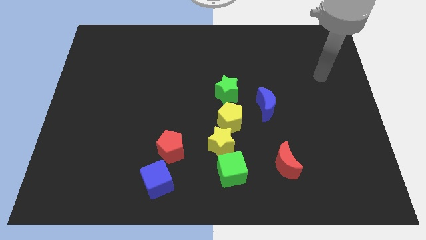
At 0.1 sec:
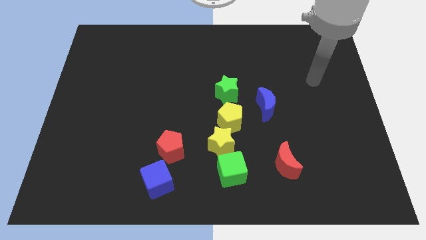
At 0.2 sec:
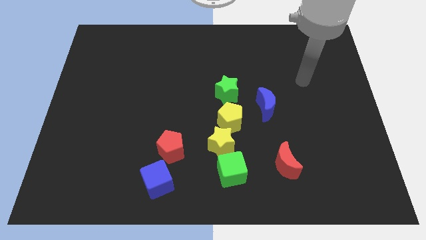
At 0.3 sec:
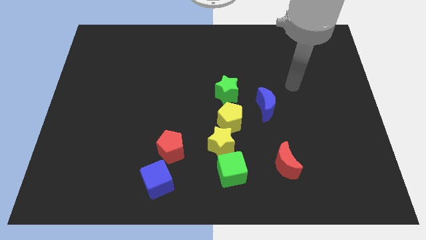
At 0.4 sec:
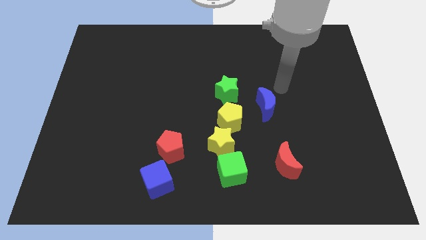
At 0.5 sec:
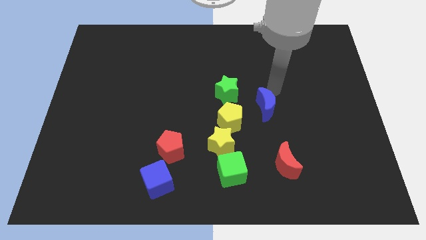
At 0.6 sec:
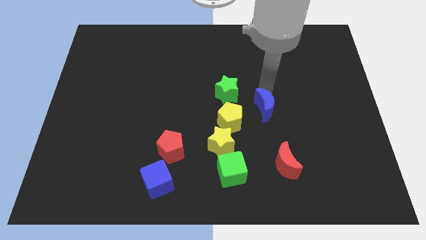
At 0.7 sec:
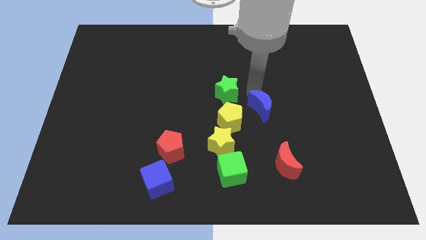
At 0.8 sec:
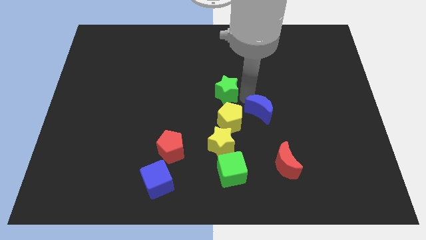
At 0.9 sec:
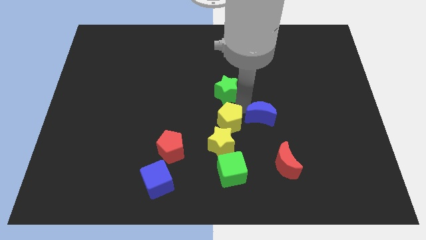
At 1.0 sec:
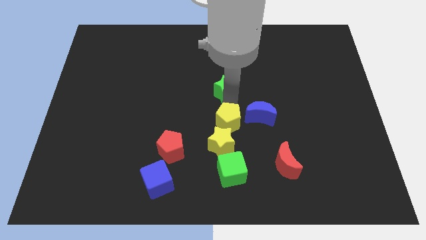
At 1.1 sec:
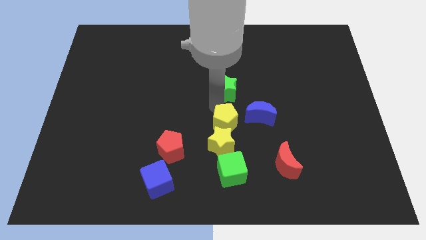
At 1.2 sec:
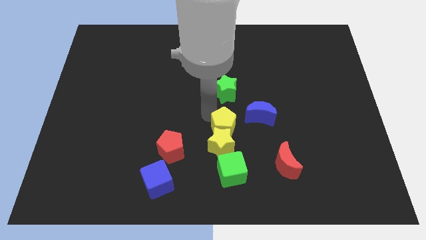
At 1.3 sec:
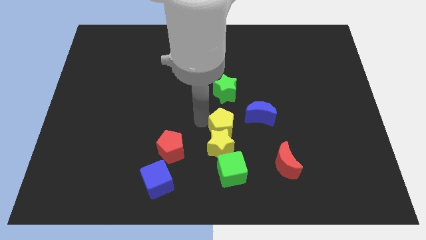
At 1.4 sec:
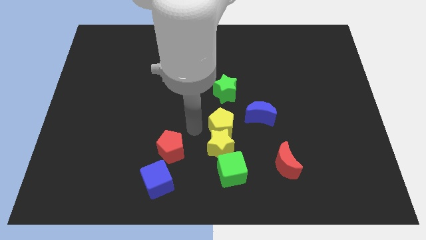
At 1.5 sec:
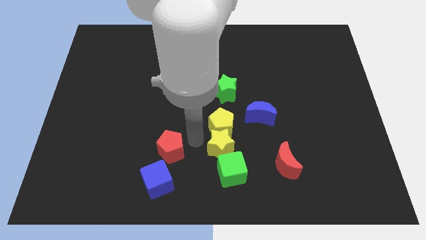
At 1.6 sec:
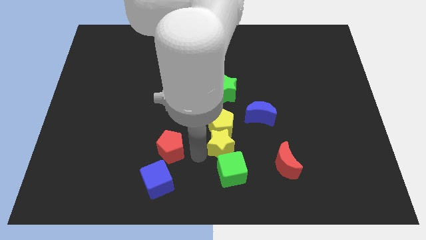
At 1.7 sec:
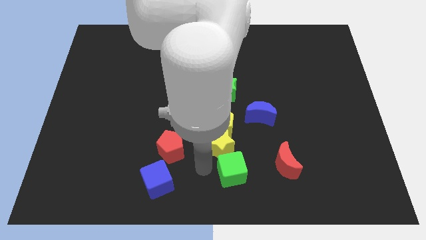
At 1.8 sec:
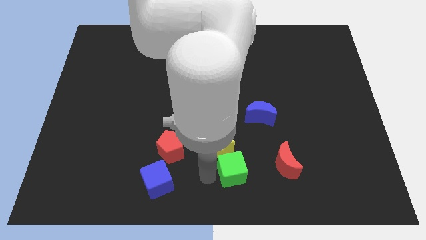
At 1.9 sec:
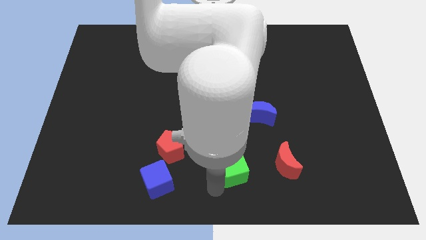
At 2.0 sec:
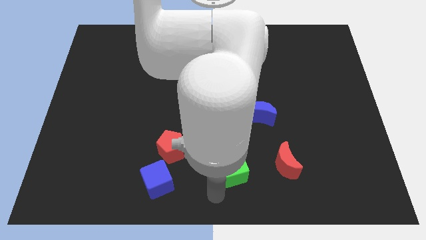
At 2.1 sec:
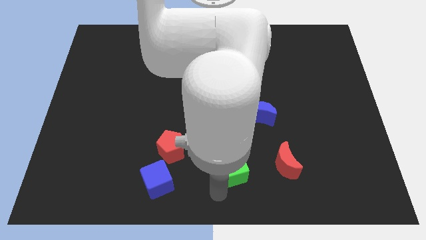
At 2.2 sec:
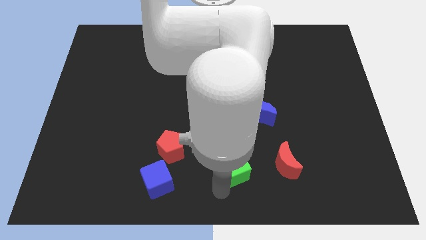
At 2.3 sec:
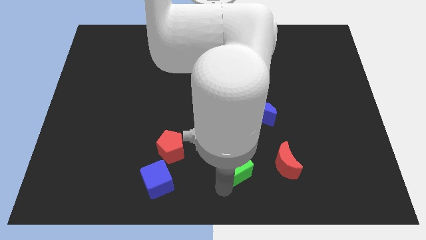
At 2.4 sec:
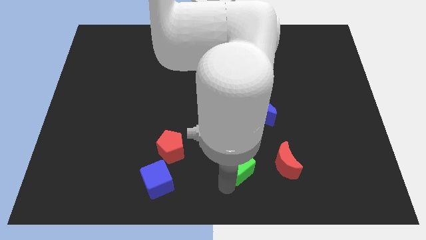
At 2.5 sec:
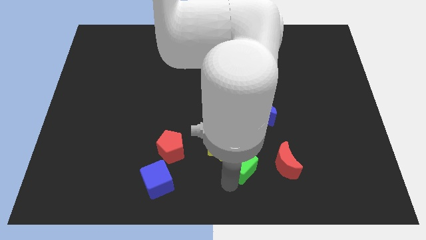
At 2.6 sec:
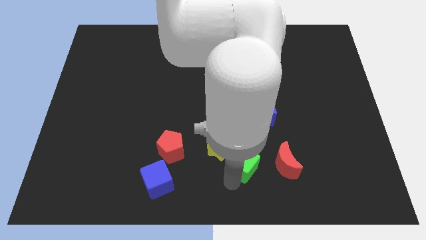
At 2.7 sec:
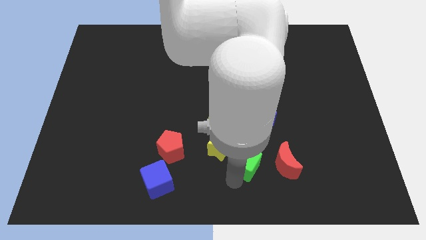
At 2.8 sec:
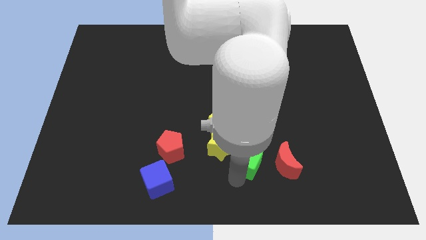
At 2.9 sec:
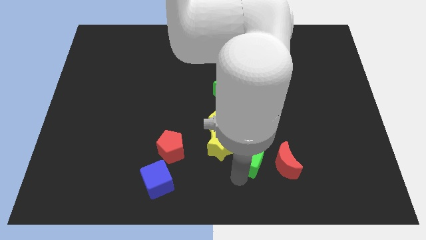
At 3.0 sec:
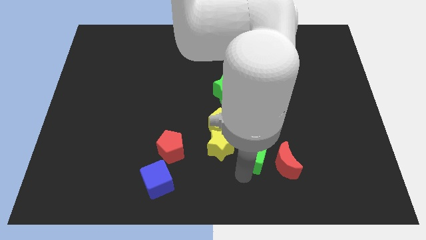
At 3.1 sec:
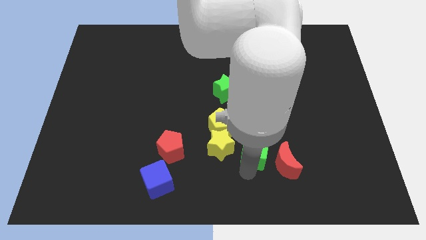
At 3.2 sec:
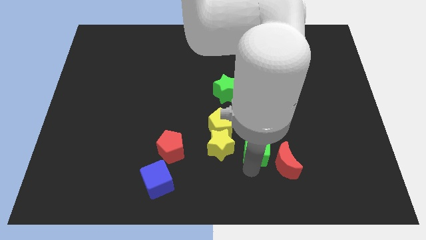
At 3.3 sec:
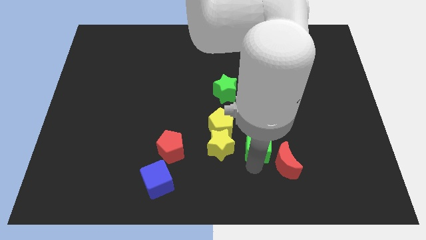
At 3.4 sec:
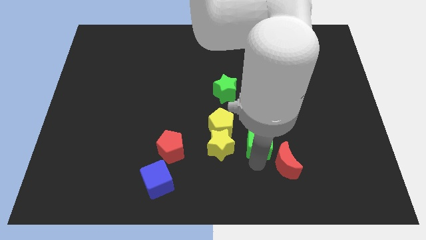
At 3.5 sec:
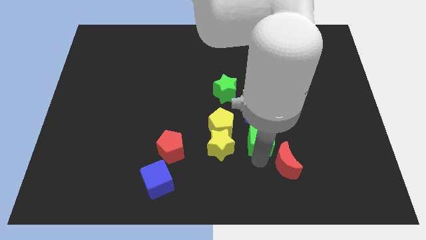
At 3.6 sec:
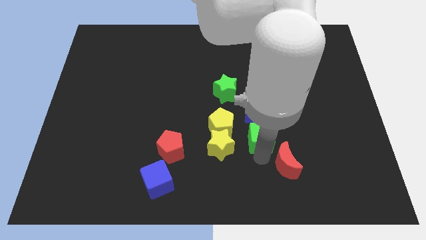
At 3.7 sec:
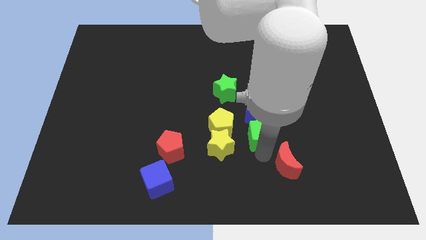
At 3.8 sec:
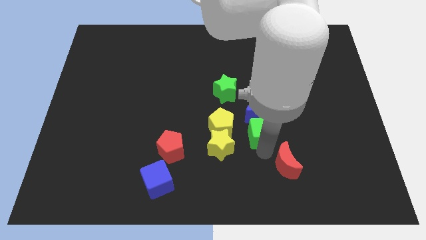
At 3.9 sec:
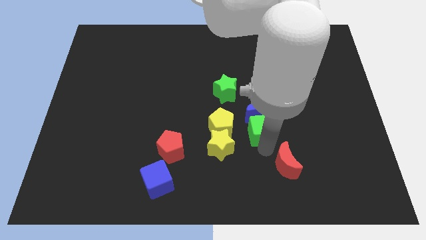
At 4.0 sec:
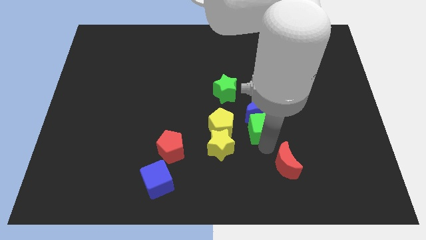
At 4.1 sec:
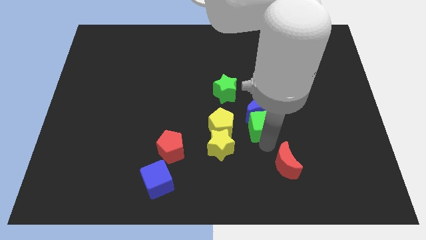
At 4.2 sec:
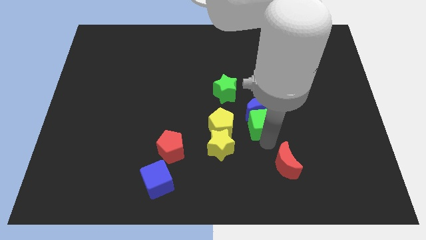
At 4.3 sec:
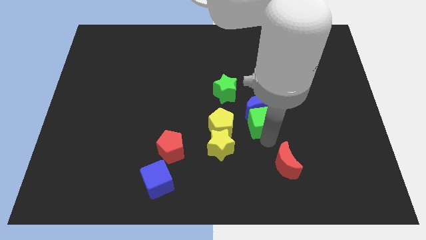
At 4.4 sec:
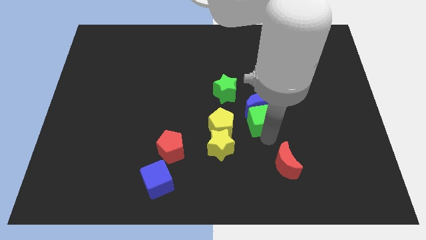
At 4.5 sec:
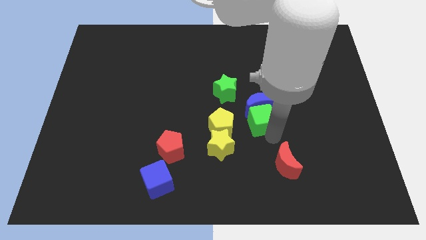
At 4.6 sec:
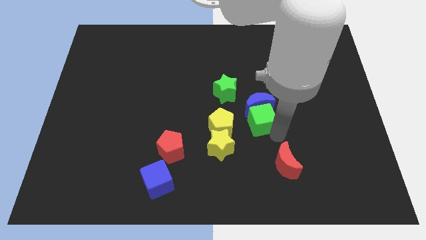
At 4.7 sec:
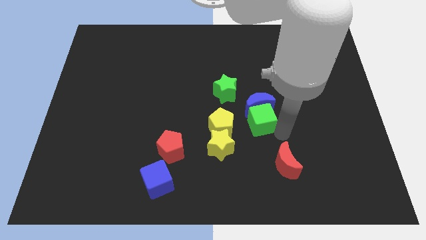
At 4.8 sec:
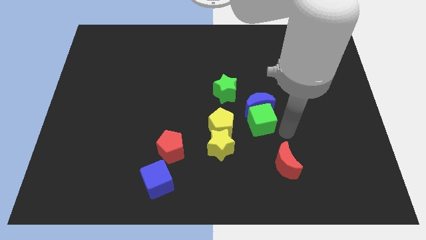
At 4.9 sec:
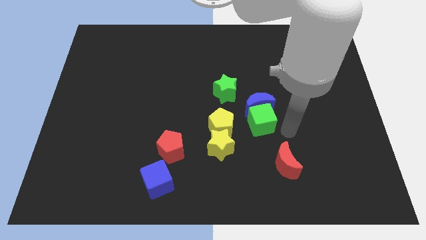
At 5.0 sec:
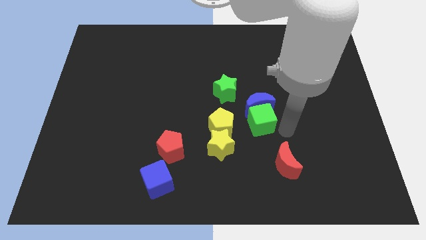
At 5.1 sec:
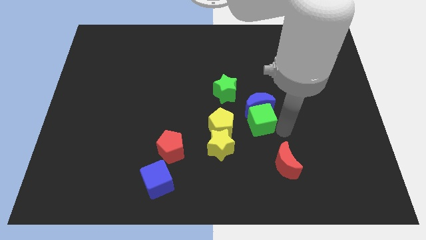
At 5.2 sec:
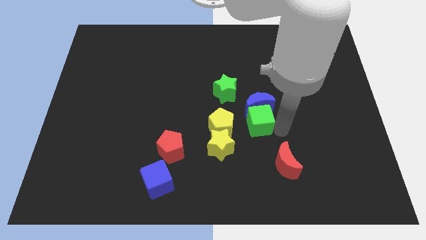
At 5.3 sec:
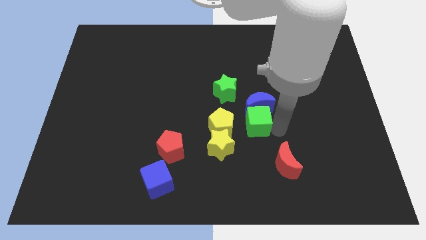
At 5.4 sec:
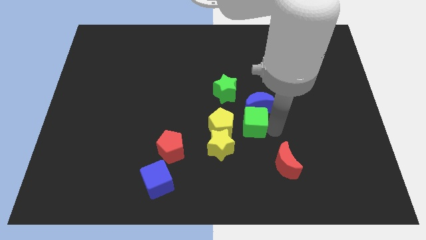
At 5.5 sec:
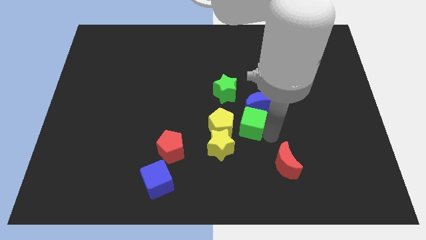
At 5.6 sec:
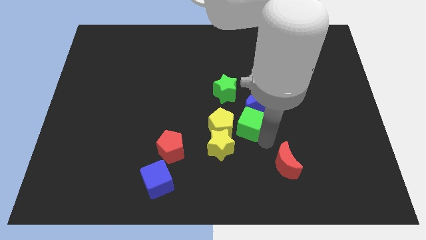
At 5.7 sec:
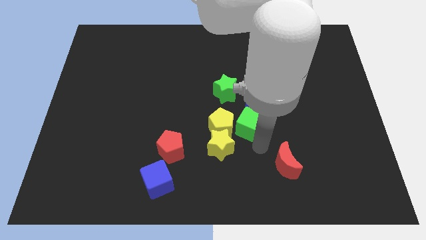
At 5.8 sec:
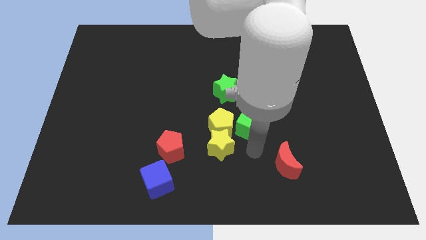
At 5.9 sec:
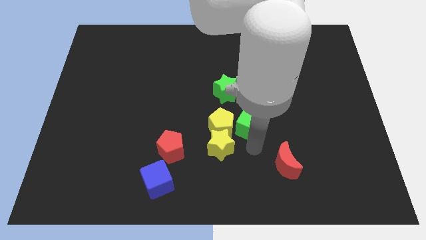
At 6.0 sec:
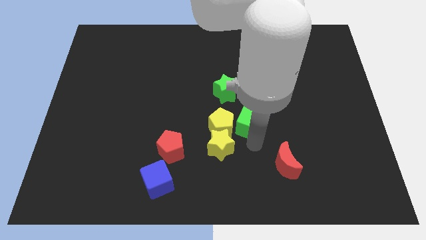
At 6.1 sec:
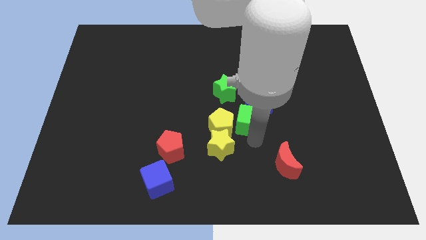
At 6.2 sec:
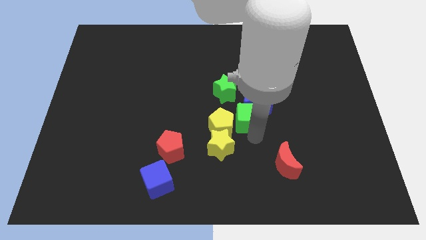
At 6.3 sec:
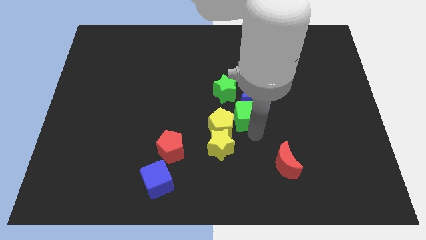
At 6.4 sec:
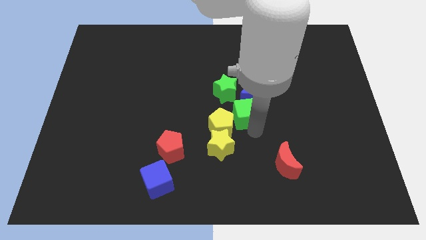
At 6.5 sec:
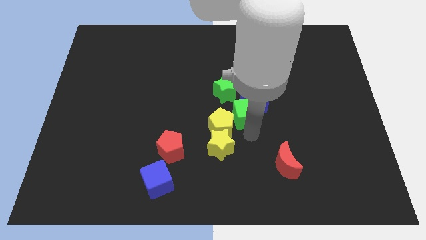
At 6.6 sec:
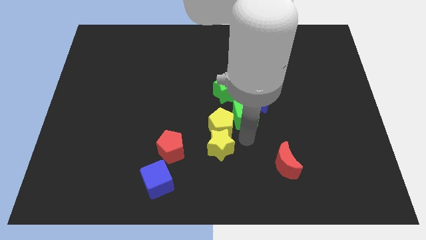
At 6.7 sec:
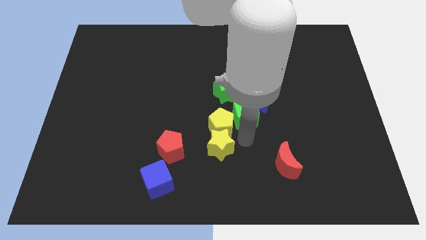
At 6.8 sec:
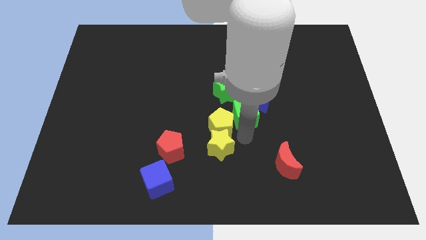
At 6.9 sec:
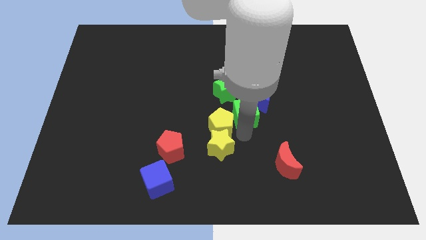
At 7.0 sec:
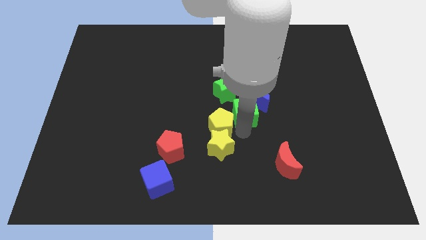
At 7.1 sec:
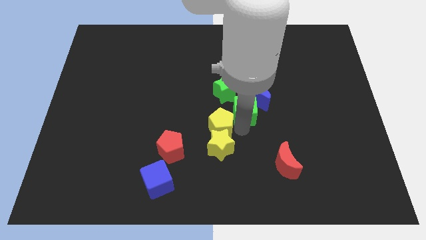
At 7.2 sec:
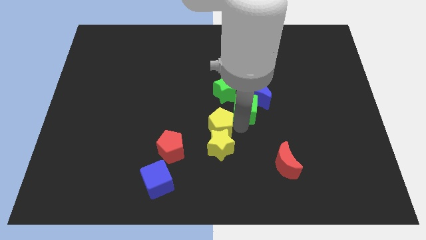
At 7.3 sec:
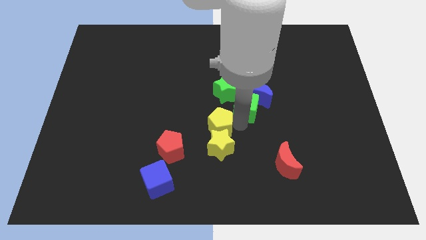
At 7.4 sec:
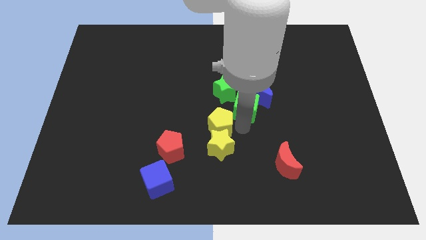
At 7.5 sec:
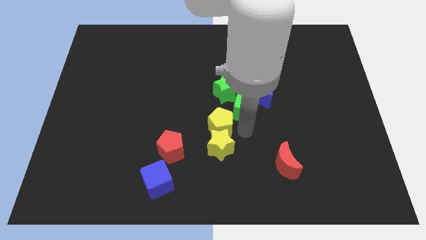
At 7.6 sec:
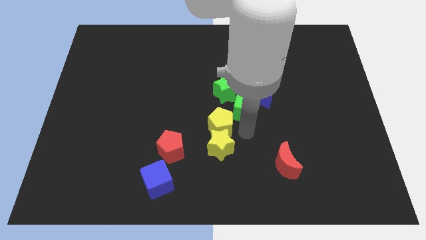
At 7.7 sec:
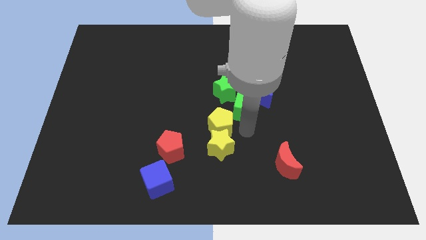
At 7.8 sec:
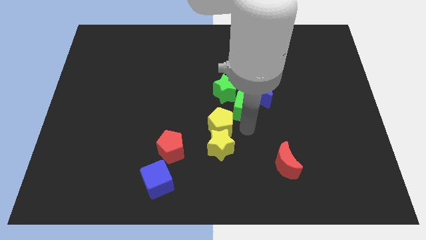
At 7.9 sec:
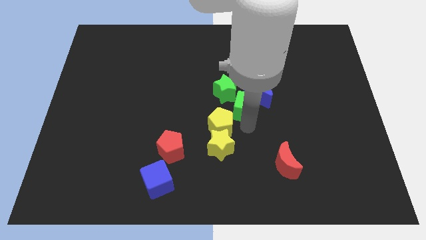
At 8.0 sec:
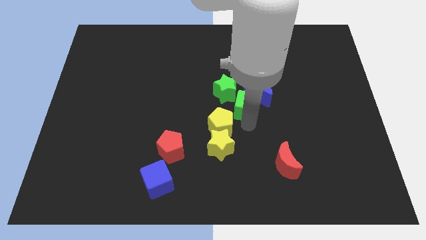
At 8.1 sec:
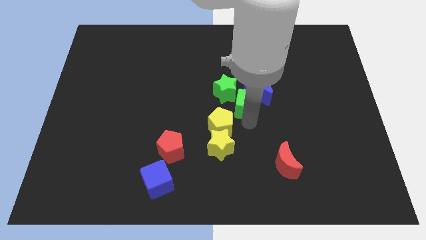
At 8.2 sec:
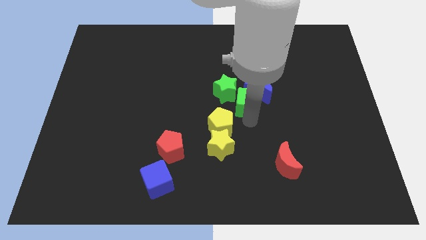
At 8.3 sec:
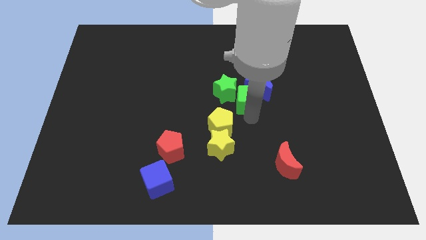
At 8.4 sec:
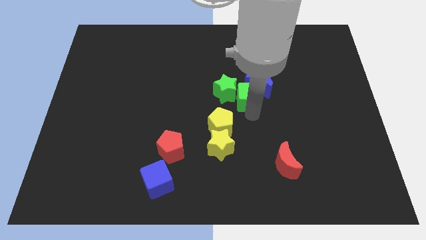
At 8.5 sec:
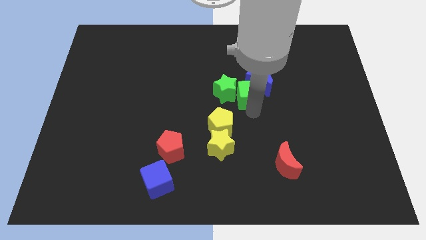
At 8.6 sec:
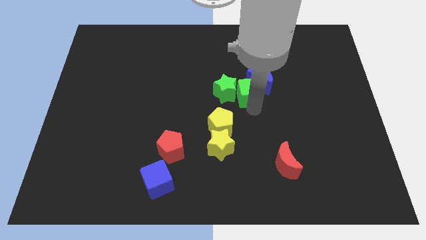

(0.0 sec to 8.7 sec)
push the green cube upwards
